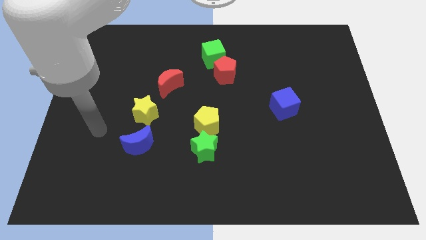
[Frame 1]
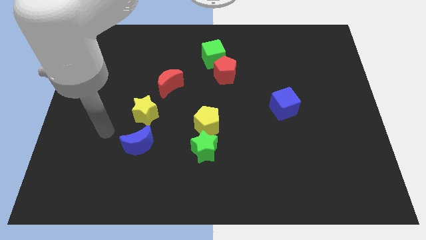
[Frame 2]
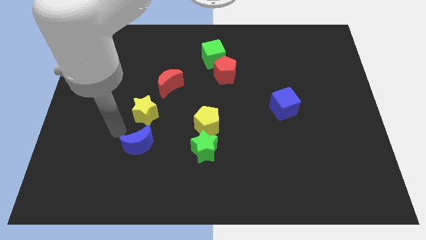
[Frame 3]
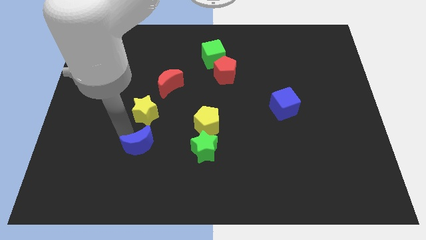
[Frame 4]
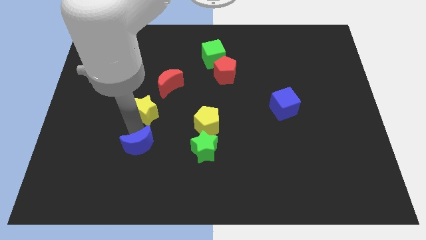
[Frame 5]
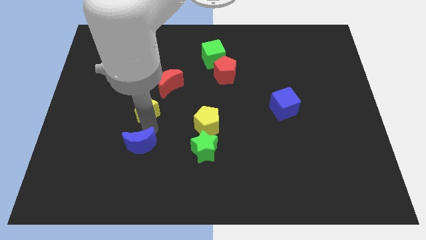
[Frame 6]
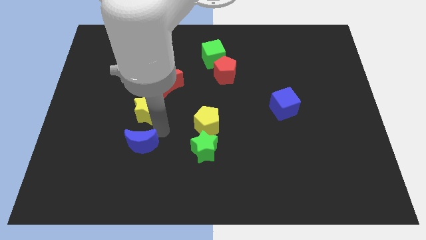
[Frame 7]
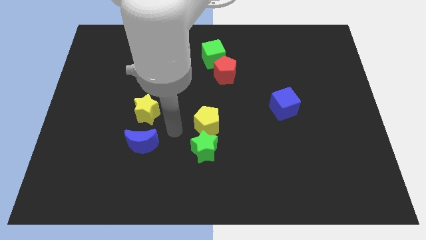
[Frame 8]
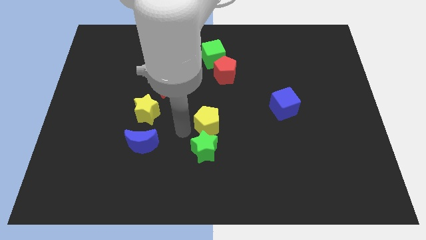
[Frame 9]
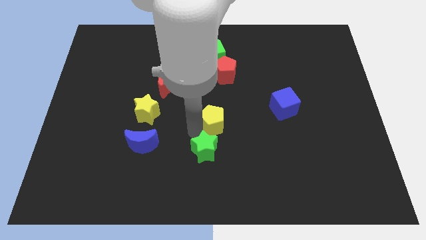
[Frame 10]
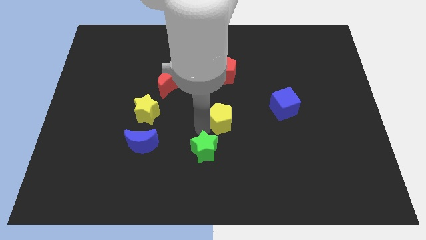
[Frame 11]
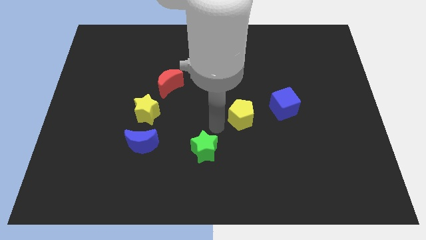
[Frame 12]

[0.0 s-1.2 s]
move the green star away from the yellow pentagon

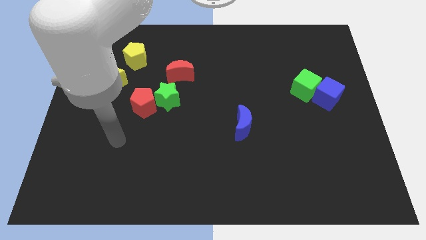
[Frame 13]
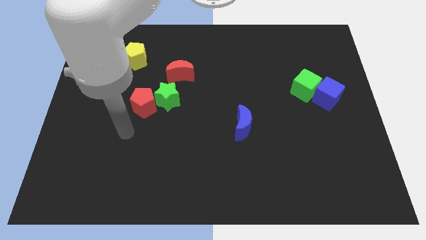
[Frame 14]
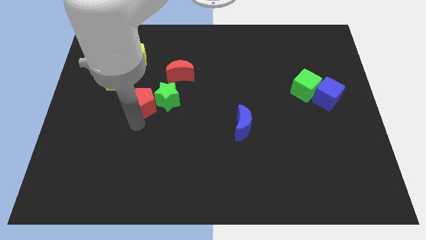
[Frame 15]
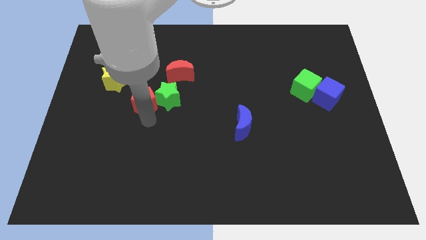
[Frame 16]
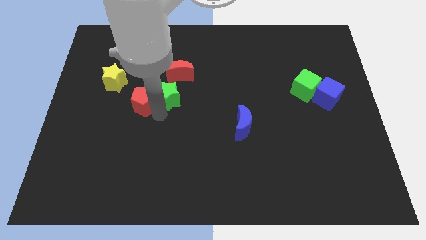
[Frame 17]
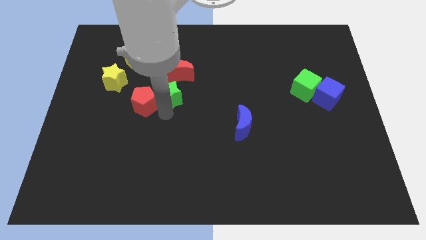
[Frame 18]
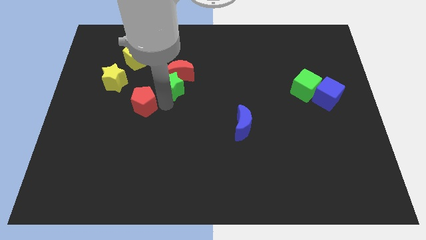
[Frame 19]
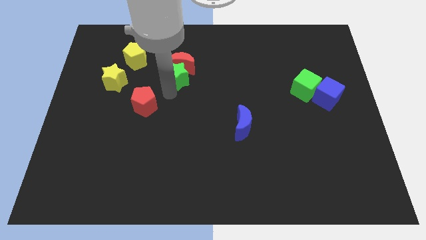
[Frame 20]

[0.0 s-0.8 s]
move the red pentagon away from the green star

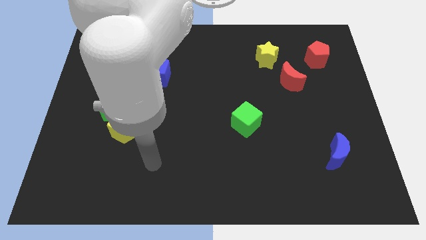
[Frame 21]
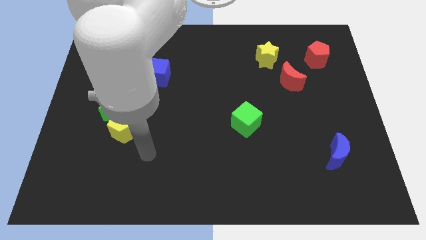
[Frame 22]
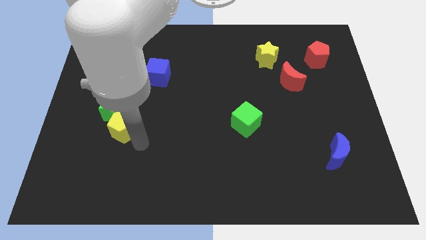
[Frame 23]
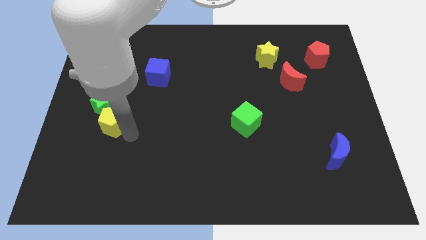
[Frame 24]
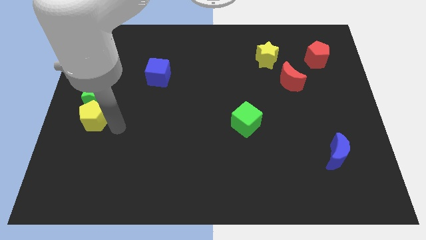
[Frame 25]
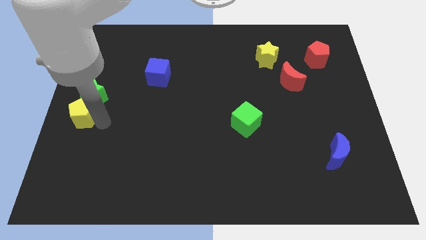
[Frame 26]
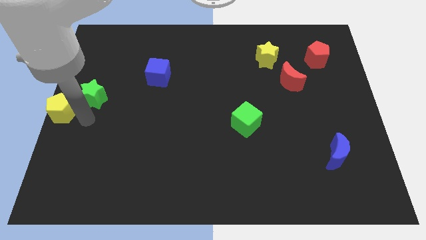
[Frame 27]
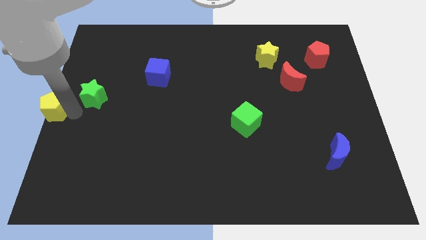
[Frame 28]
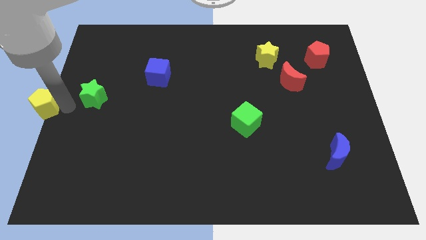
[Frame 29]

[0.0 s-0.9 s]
separate the green star from the yellow pentagon

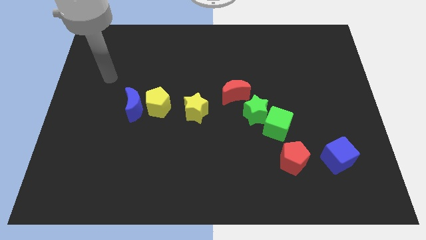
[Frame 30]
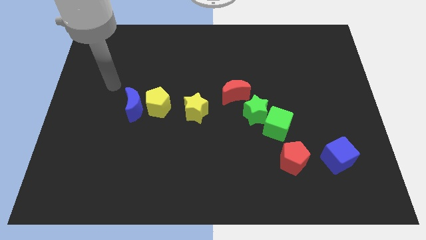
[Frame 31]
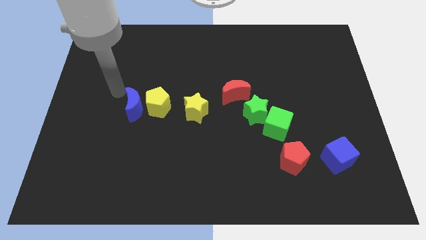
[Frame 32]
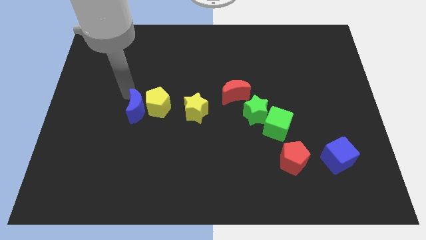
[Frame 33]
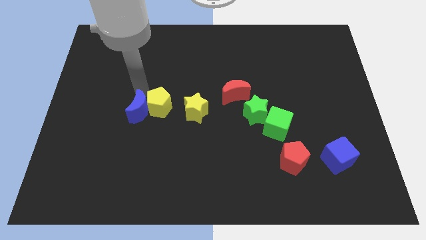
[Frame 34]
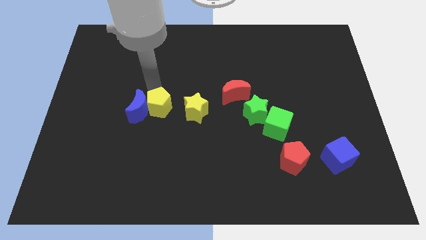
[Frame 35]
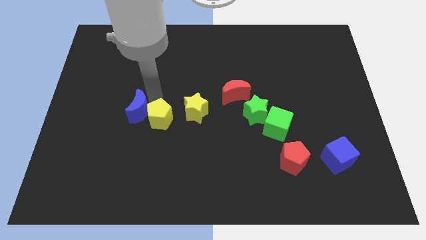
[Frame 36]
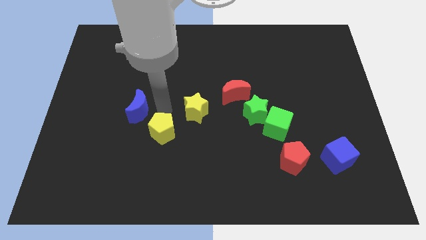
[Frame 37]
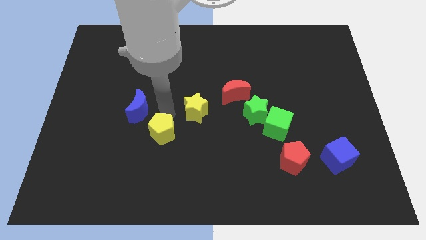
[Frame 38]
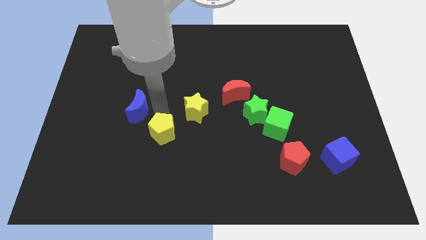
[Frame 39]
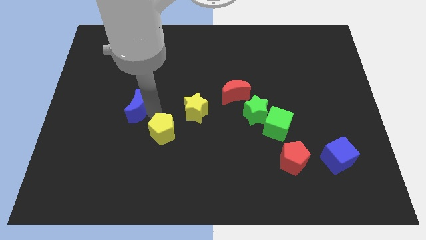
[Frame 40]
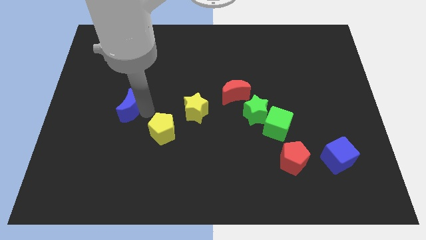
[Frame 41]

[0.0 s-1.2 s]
move the blue moon away from the yellow pentagon

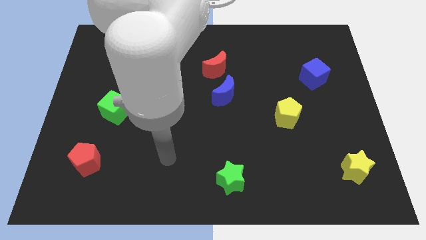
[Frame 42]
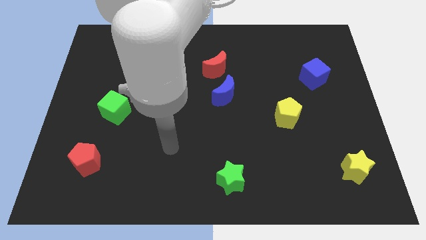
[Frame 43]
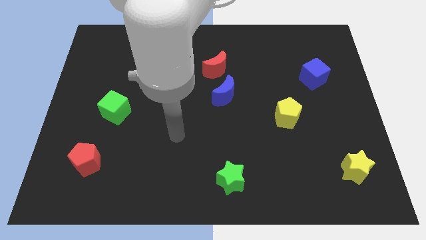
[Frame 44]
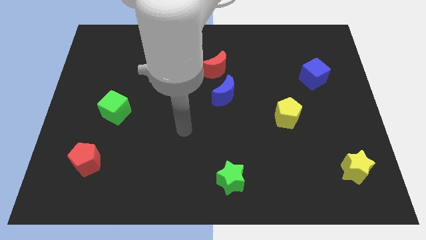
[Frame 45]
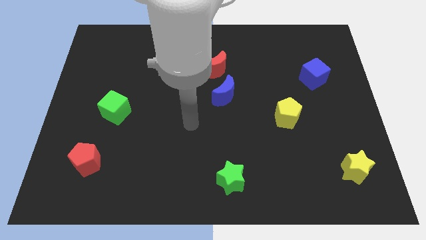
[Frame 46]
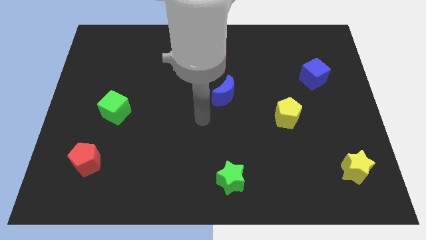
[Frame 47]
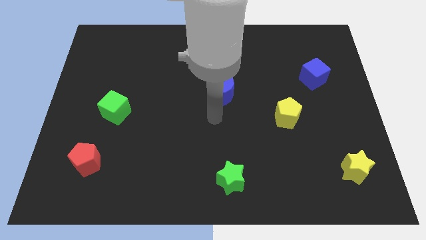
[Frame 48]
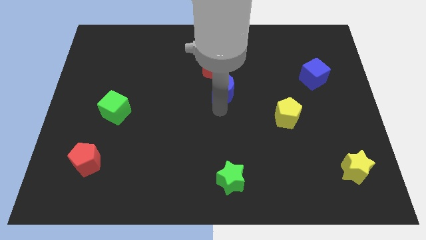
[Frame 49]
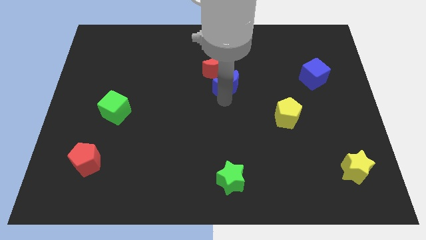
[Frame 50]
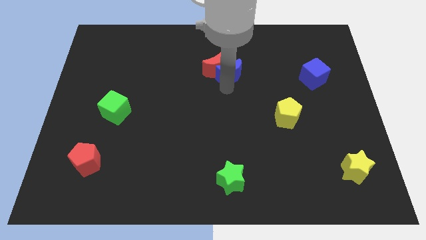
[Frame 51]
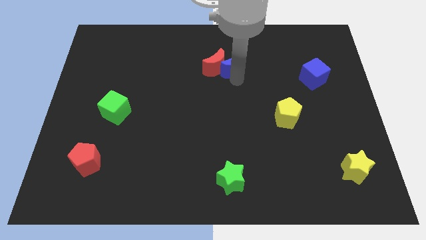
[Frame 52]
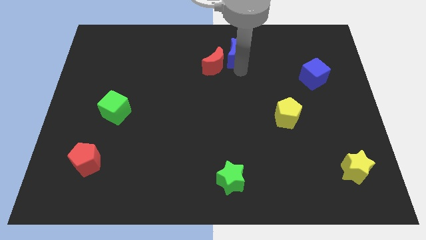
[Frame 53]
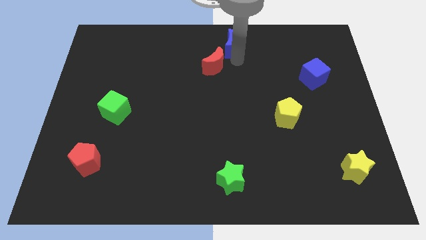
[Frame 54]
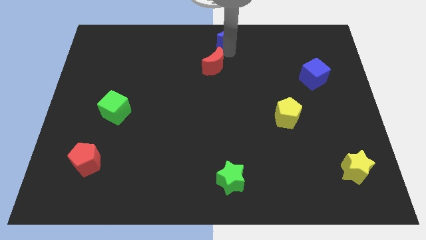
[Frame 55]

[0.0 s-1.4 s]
separate the red moon from the blue moon

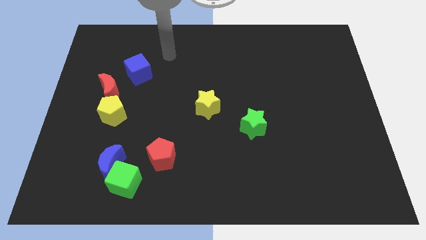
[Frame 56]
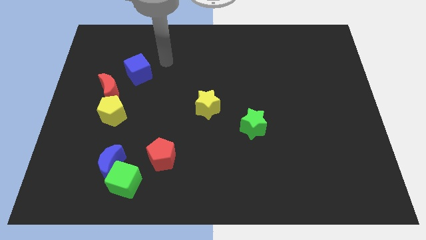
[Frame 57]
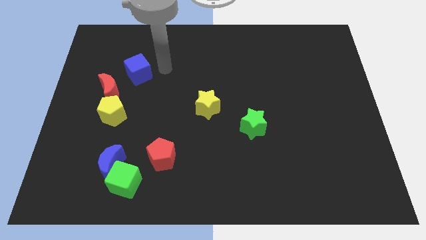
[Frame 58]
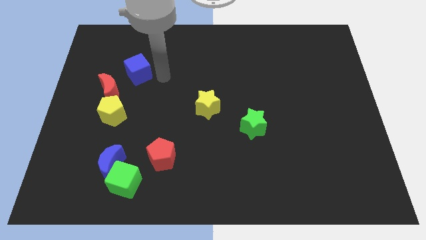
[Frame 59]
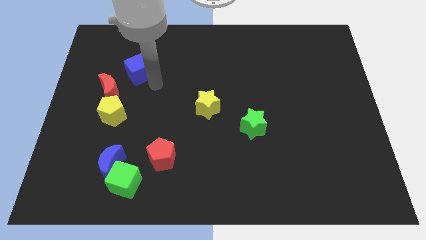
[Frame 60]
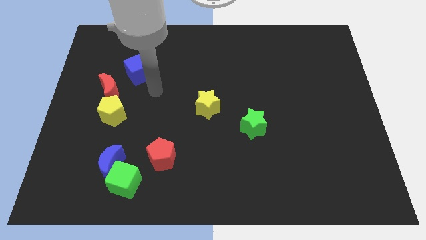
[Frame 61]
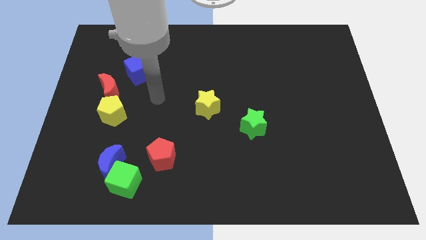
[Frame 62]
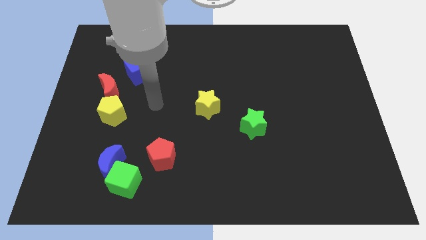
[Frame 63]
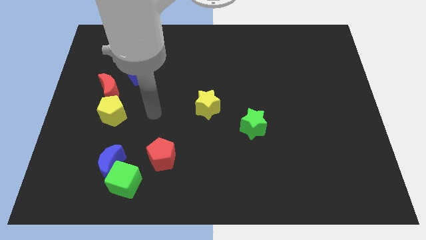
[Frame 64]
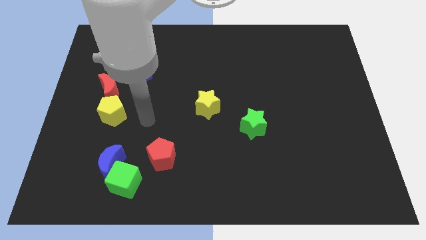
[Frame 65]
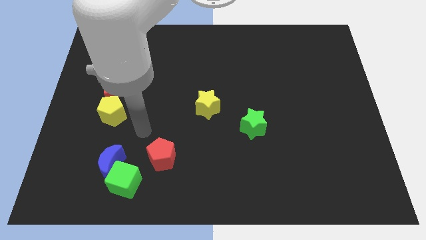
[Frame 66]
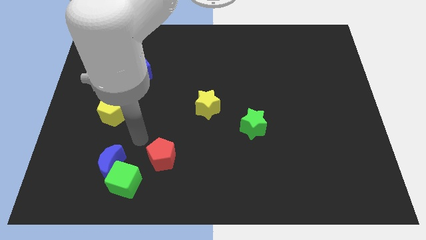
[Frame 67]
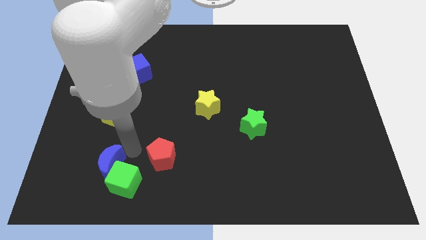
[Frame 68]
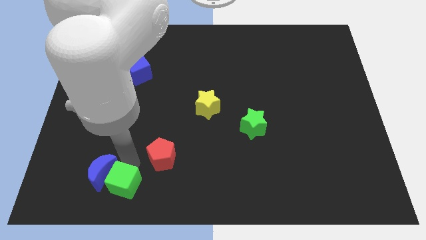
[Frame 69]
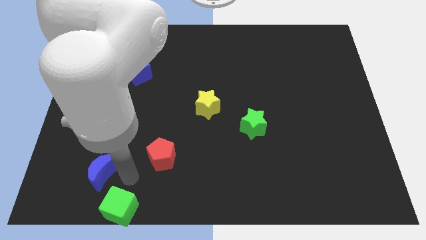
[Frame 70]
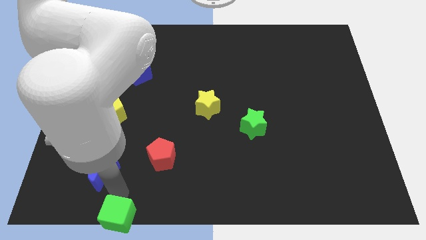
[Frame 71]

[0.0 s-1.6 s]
move the blue moon away from the green cube

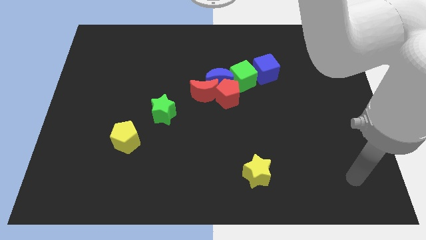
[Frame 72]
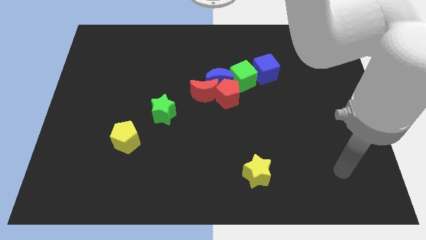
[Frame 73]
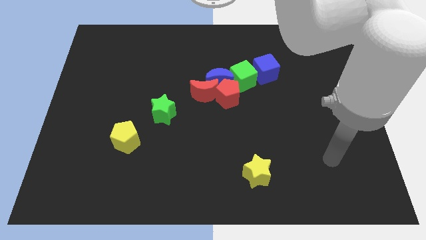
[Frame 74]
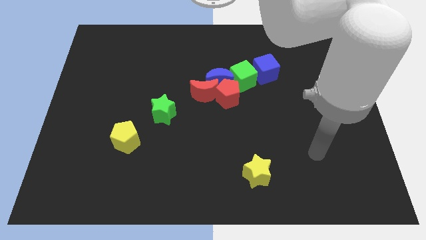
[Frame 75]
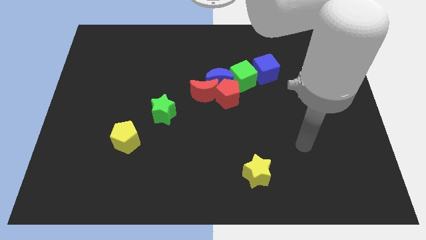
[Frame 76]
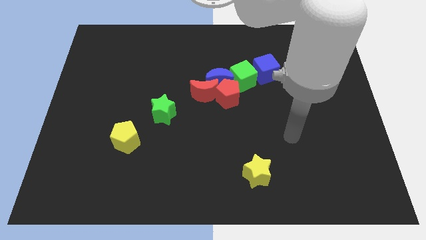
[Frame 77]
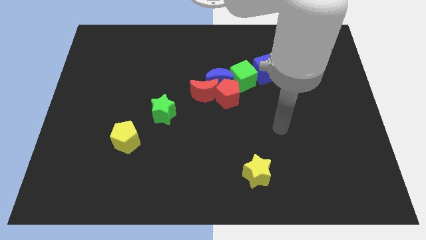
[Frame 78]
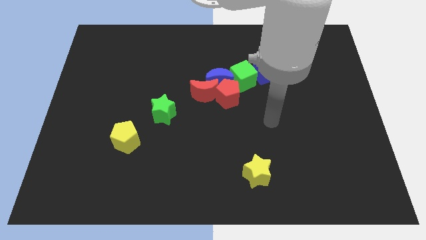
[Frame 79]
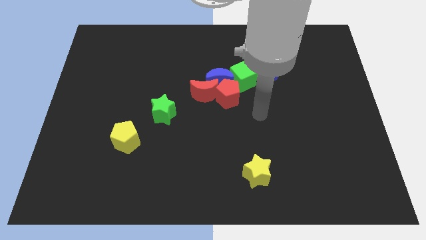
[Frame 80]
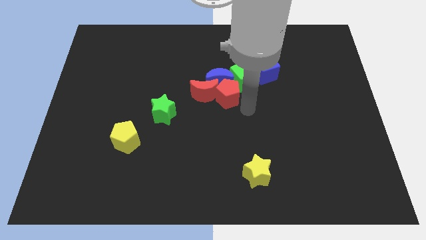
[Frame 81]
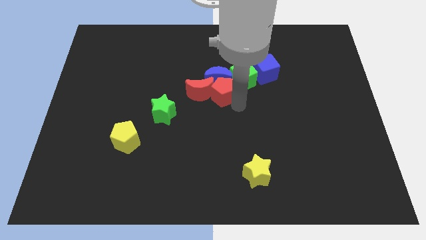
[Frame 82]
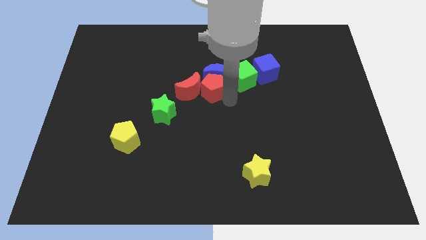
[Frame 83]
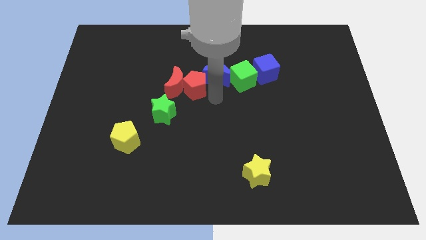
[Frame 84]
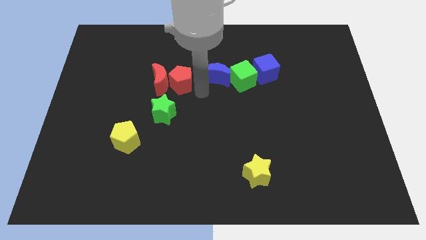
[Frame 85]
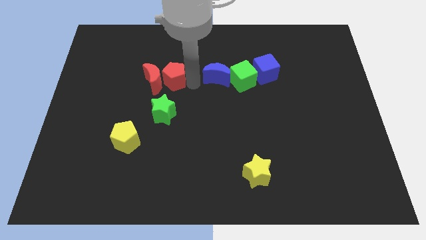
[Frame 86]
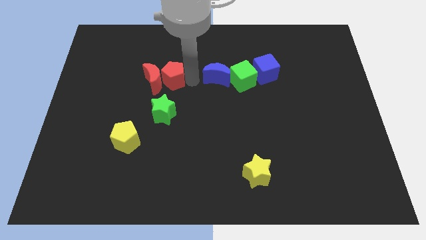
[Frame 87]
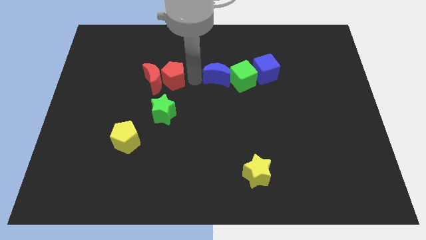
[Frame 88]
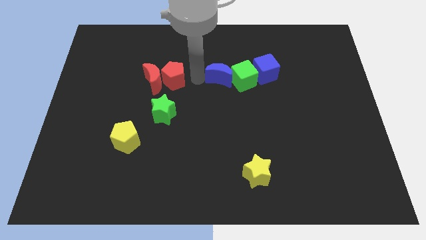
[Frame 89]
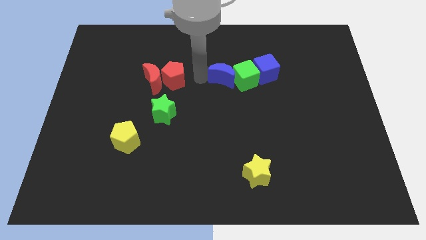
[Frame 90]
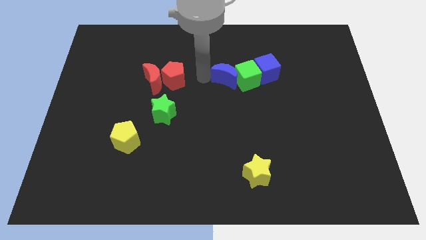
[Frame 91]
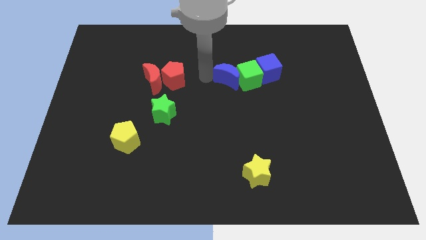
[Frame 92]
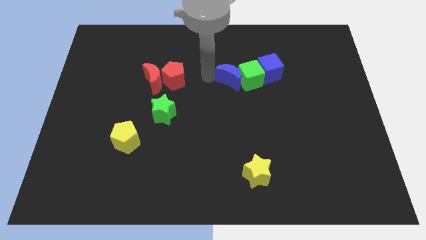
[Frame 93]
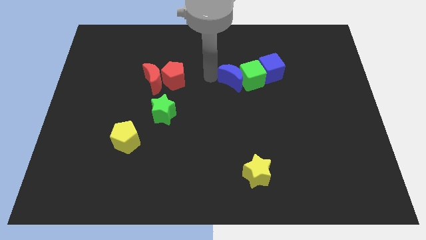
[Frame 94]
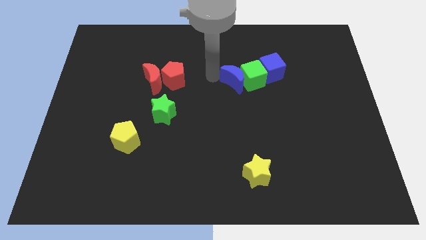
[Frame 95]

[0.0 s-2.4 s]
move the blue moon away from the red moon, red pentagon, and green cube
